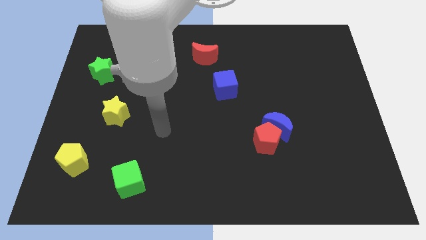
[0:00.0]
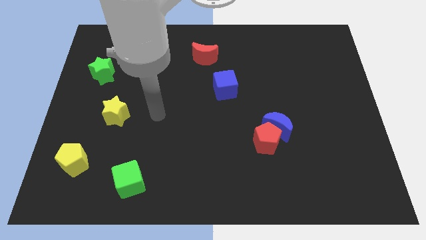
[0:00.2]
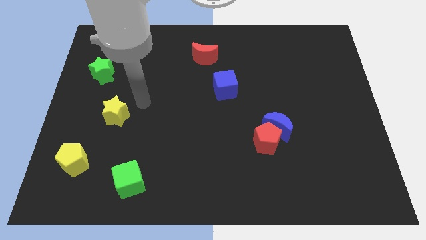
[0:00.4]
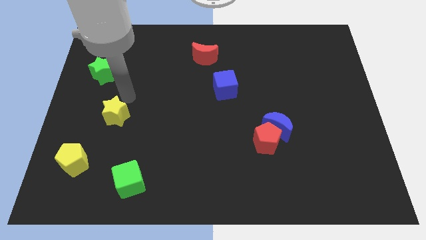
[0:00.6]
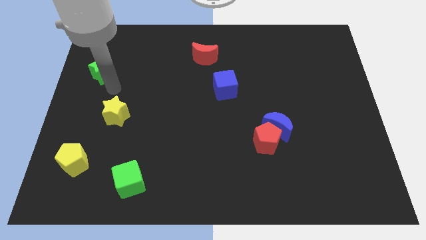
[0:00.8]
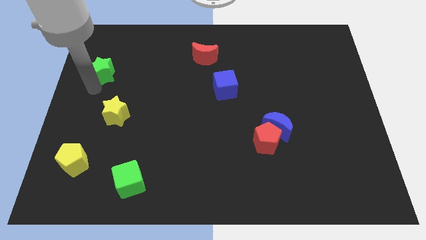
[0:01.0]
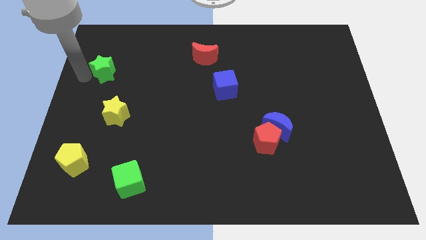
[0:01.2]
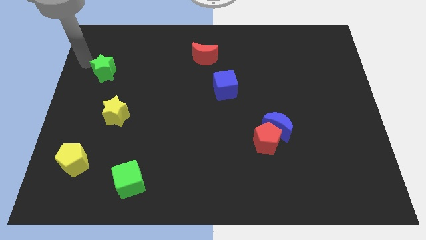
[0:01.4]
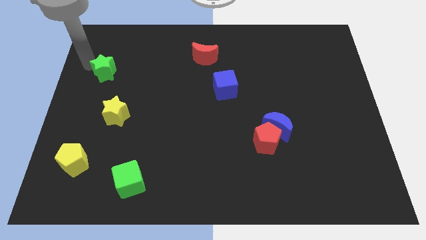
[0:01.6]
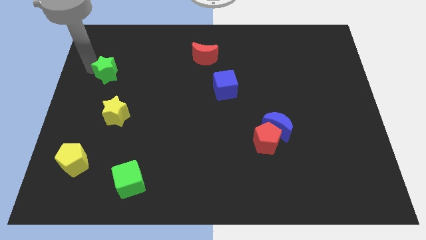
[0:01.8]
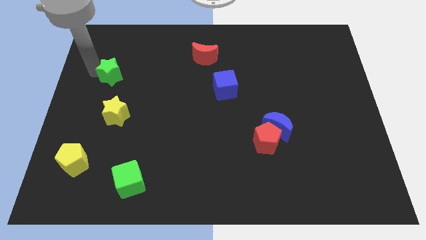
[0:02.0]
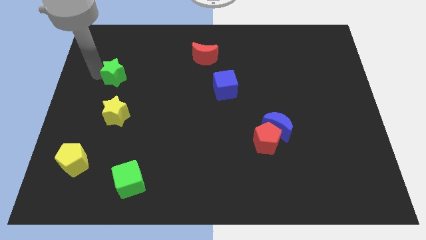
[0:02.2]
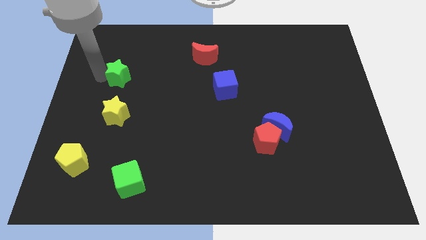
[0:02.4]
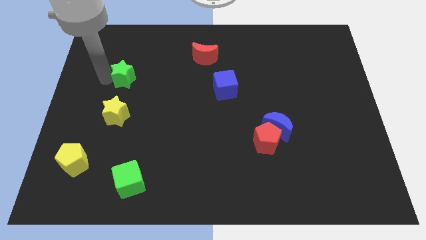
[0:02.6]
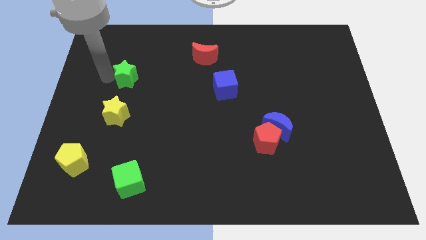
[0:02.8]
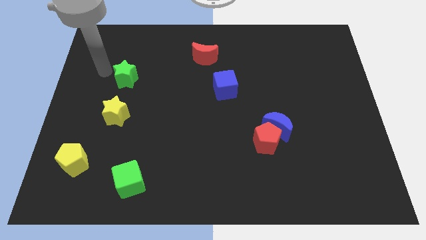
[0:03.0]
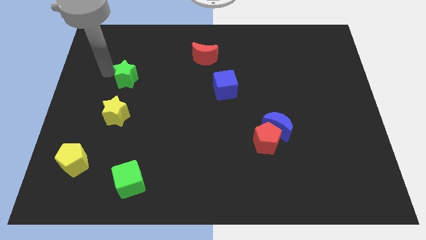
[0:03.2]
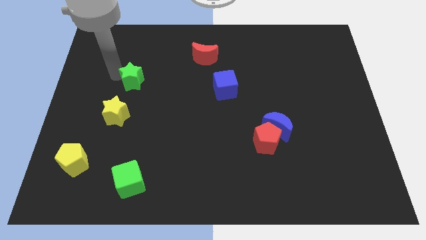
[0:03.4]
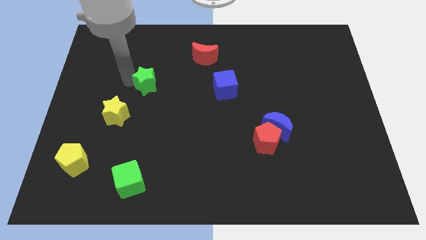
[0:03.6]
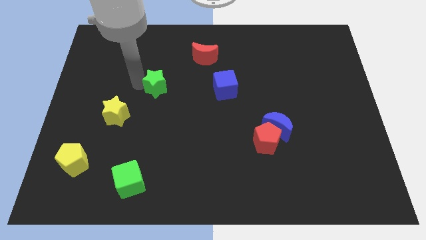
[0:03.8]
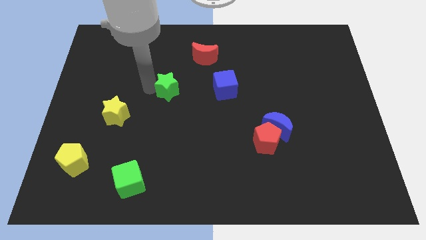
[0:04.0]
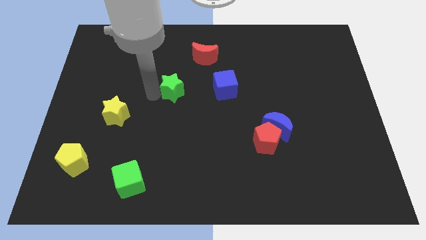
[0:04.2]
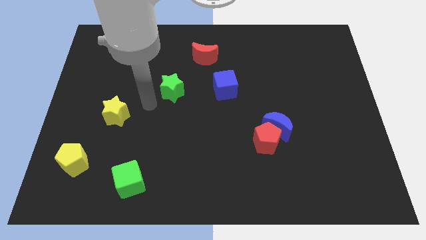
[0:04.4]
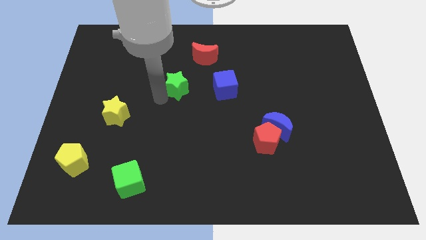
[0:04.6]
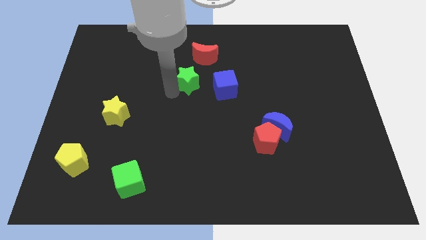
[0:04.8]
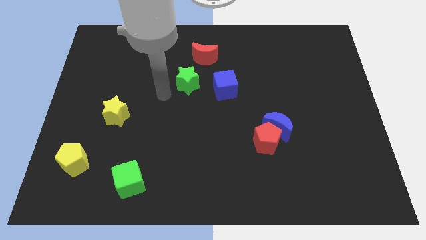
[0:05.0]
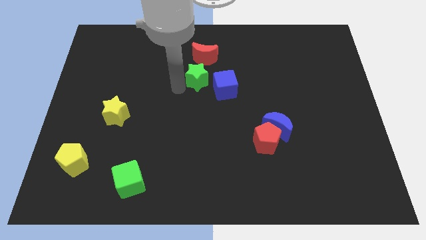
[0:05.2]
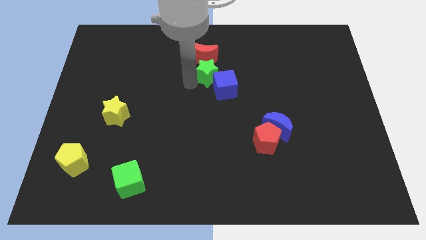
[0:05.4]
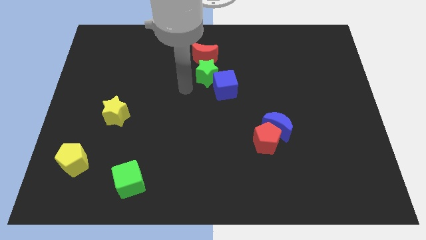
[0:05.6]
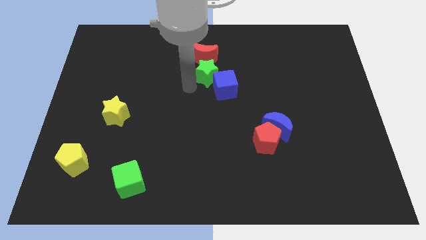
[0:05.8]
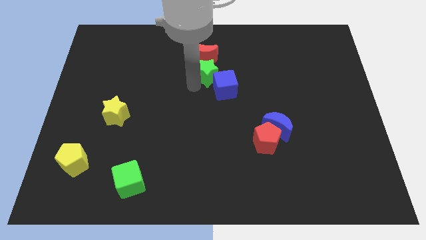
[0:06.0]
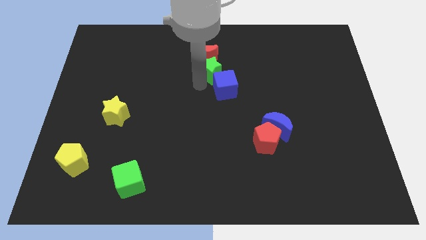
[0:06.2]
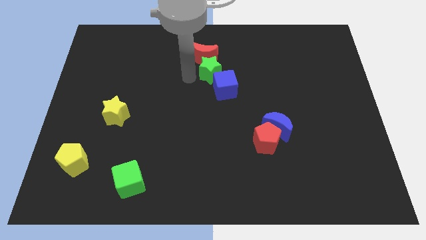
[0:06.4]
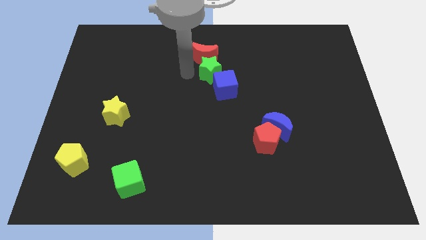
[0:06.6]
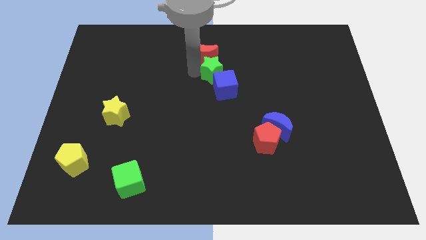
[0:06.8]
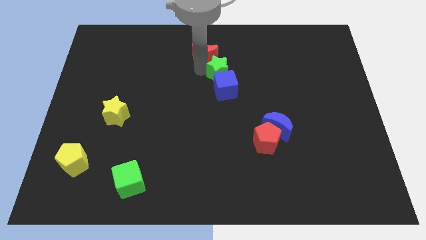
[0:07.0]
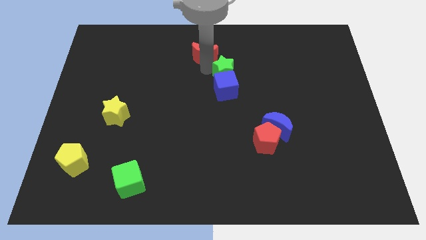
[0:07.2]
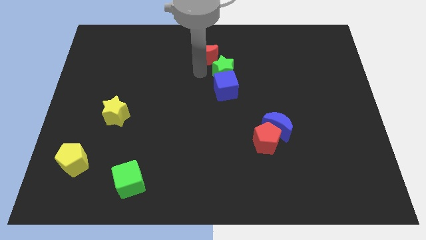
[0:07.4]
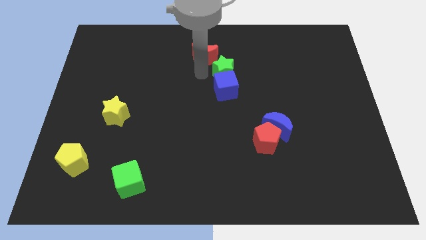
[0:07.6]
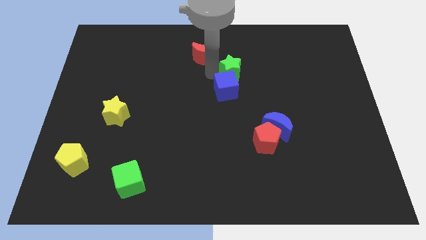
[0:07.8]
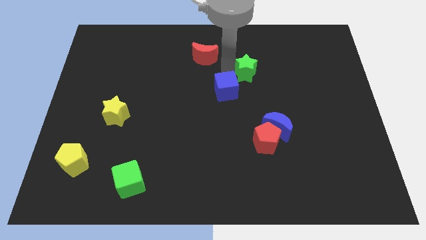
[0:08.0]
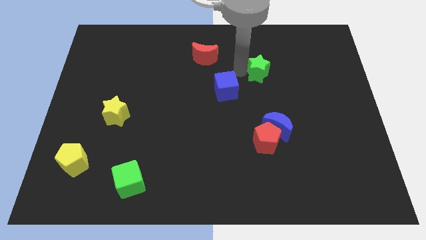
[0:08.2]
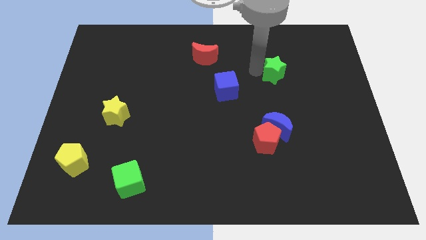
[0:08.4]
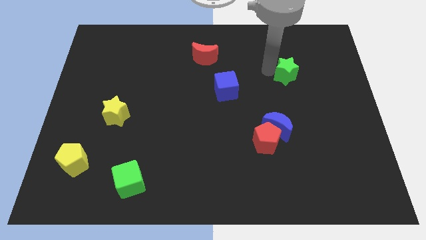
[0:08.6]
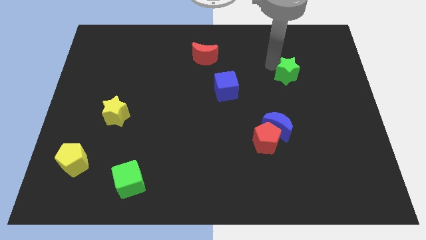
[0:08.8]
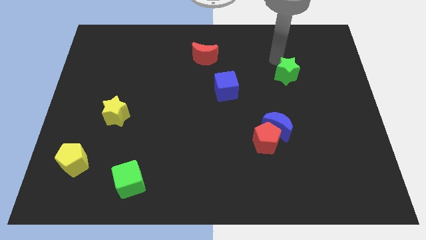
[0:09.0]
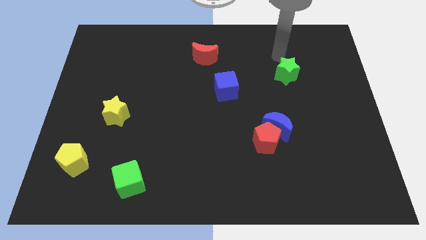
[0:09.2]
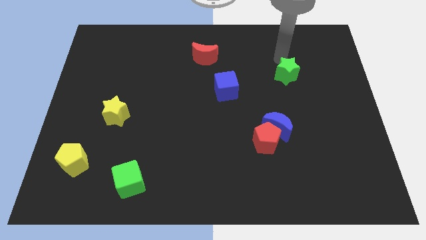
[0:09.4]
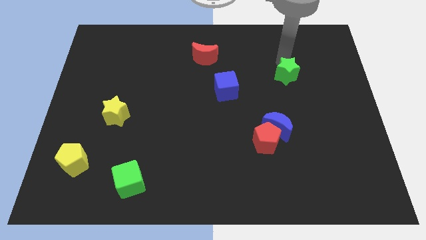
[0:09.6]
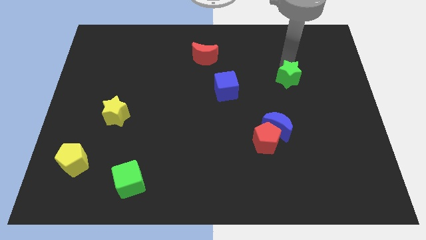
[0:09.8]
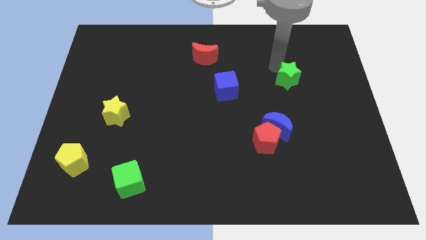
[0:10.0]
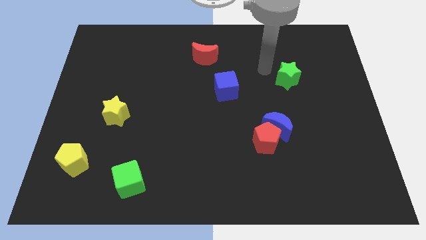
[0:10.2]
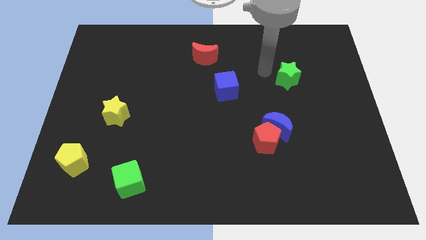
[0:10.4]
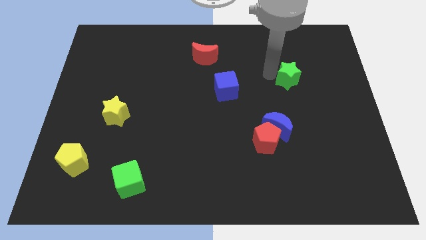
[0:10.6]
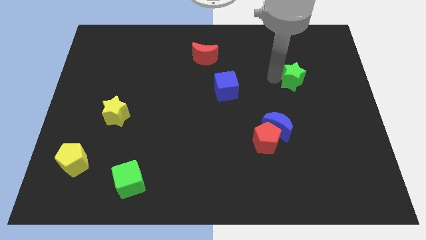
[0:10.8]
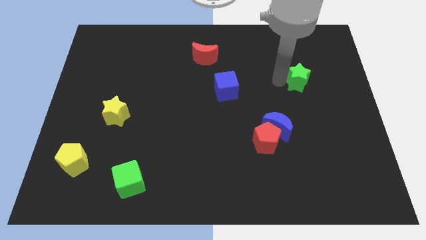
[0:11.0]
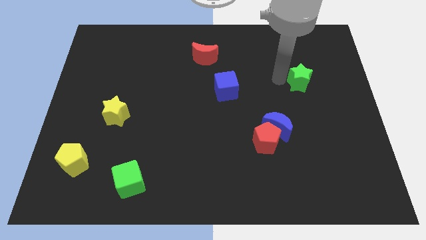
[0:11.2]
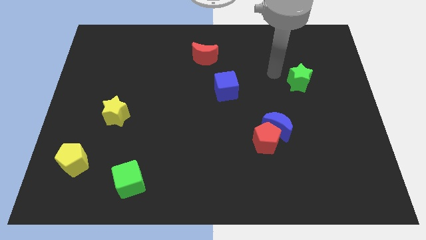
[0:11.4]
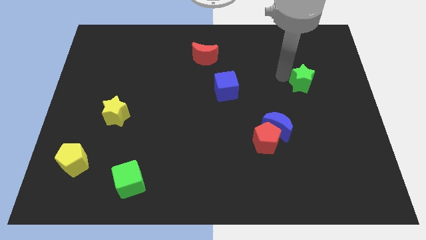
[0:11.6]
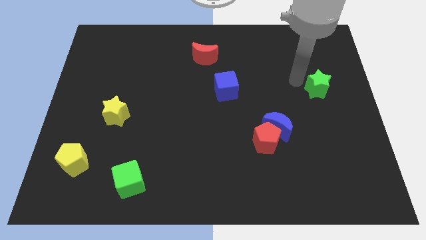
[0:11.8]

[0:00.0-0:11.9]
put the green star to the right side of the board

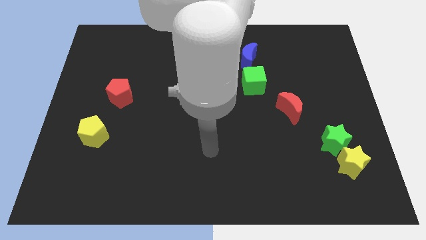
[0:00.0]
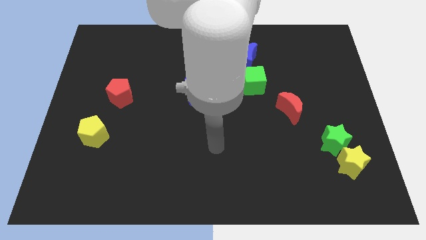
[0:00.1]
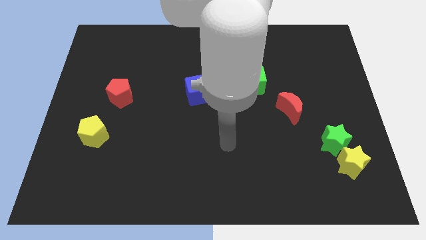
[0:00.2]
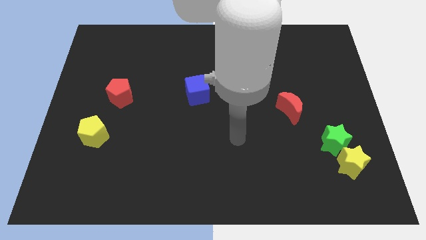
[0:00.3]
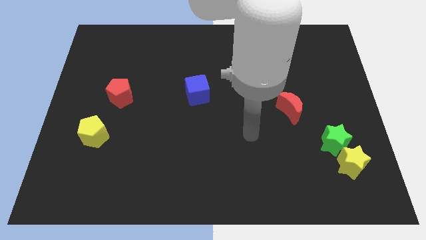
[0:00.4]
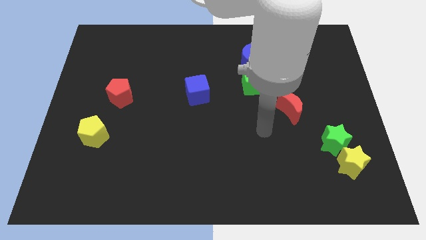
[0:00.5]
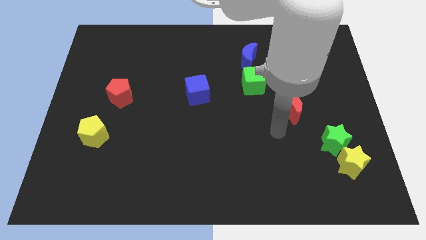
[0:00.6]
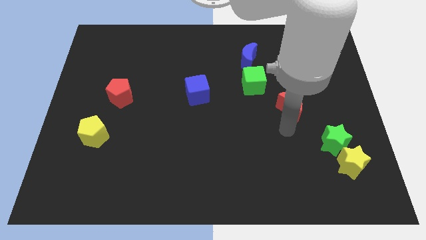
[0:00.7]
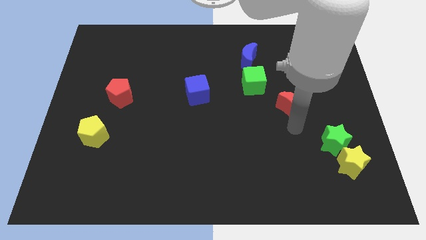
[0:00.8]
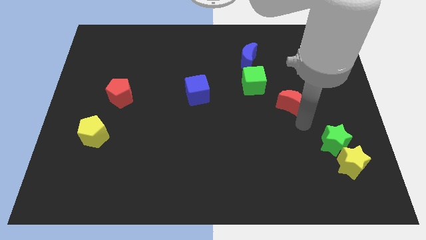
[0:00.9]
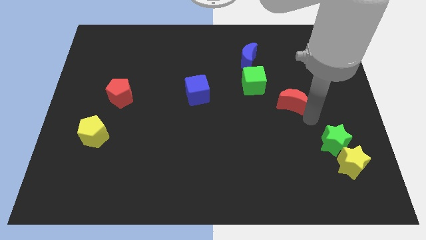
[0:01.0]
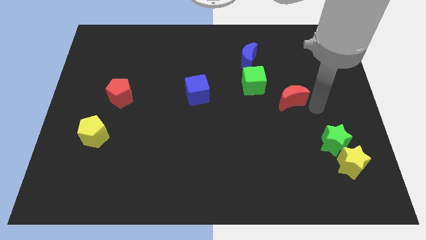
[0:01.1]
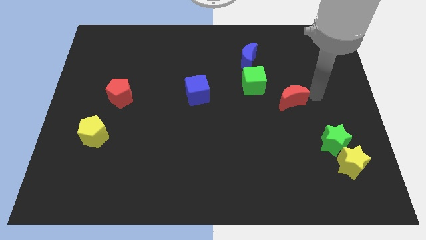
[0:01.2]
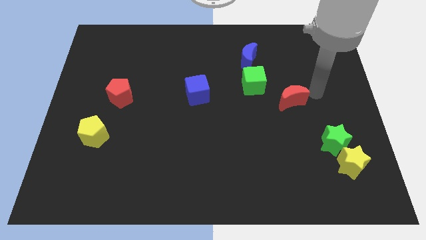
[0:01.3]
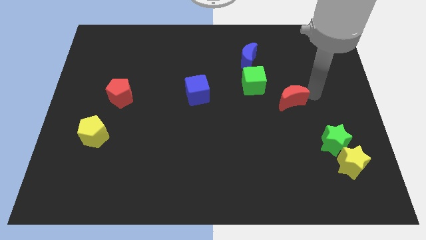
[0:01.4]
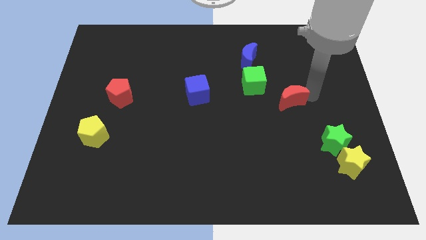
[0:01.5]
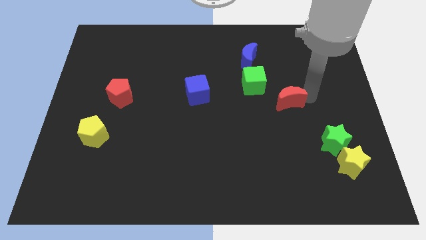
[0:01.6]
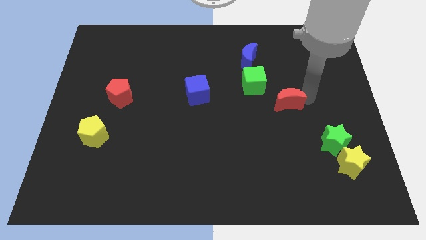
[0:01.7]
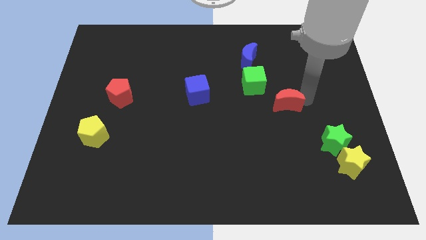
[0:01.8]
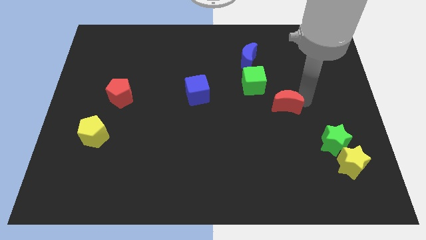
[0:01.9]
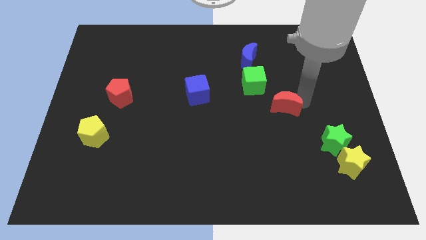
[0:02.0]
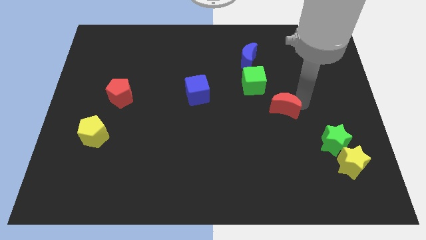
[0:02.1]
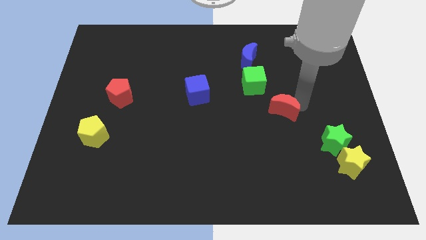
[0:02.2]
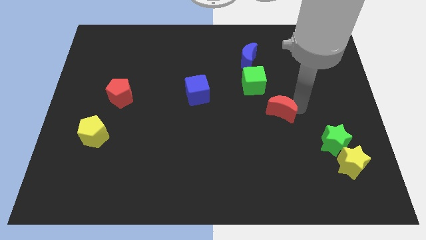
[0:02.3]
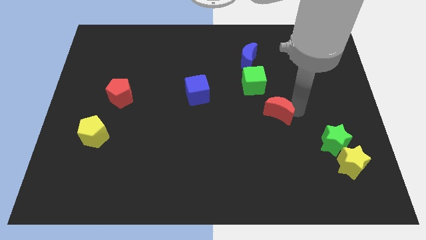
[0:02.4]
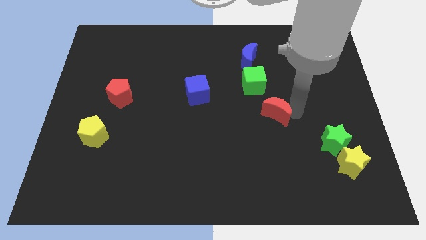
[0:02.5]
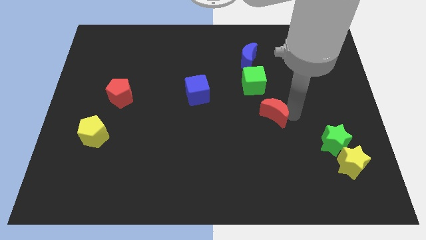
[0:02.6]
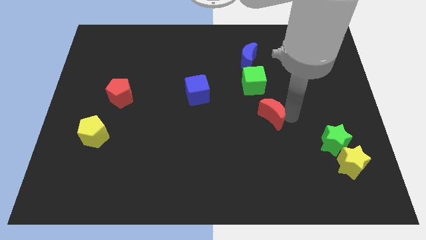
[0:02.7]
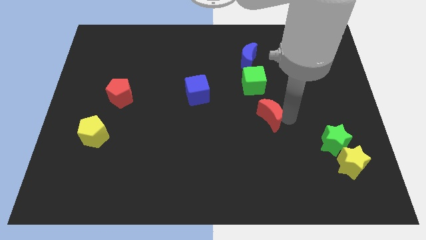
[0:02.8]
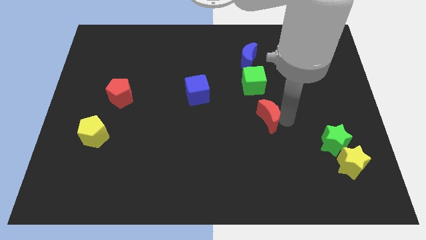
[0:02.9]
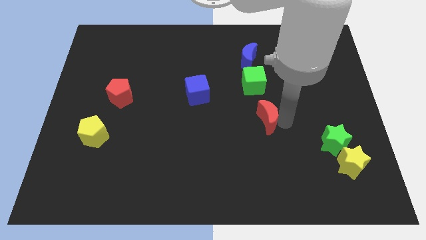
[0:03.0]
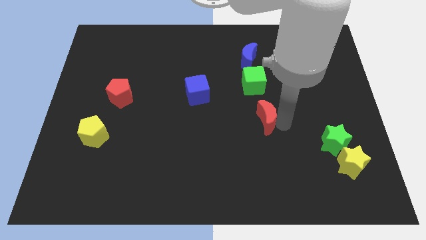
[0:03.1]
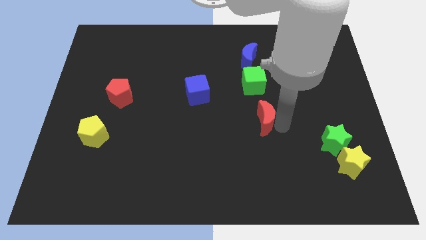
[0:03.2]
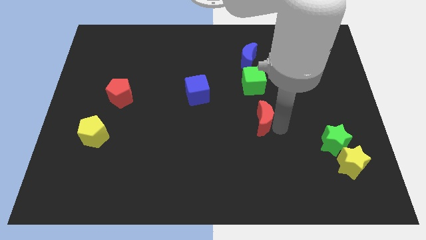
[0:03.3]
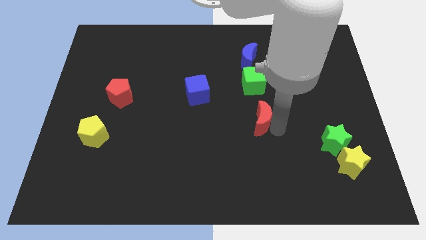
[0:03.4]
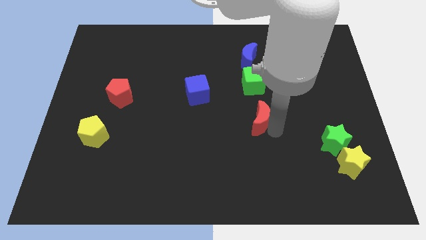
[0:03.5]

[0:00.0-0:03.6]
move the red moon to the center
